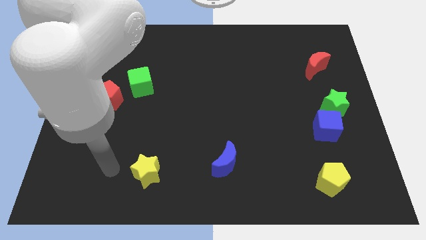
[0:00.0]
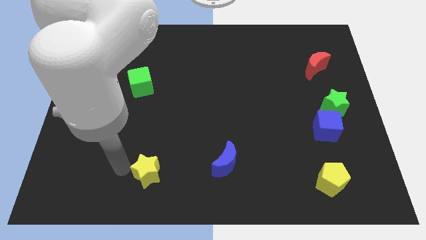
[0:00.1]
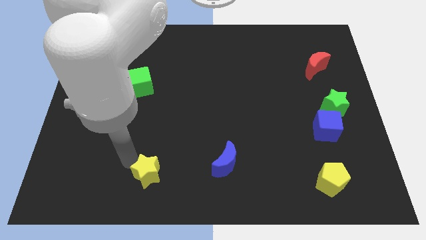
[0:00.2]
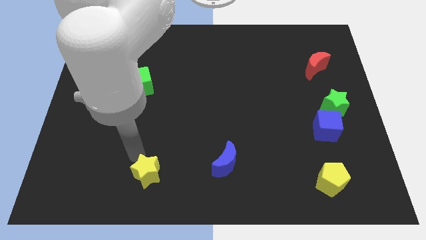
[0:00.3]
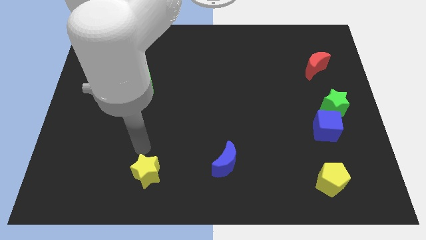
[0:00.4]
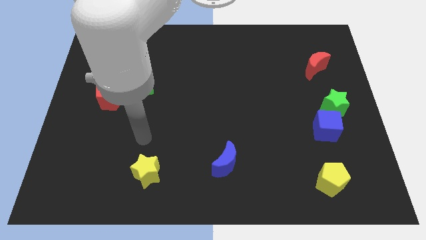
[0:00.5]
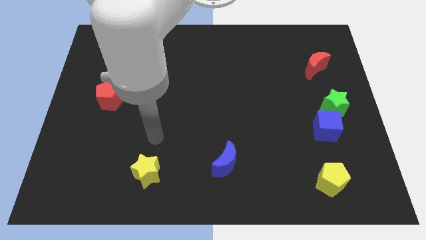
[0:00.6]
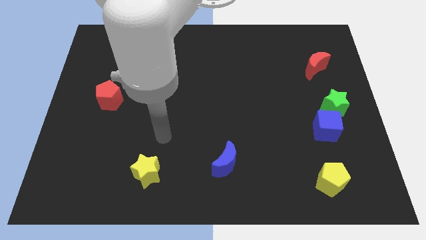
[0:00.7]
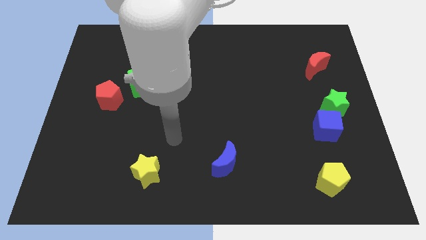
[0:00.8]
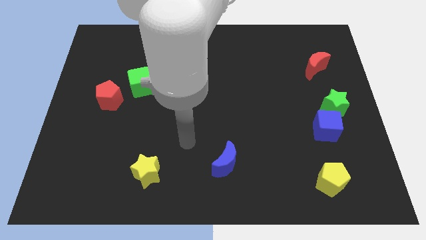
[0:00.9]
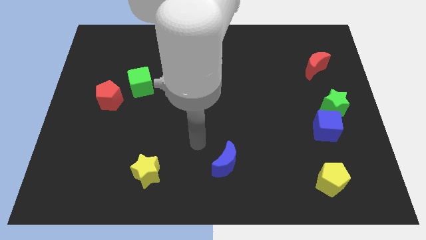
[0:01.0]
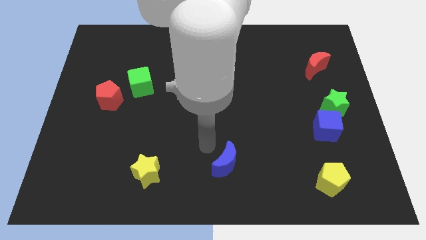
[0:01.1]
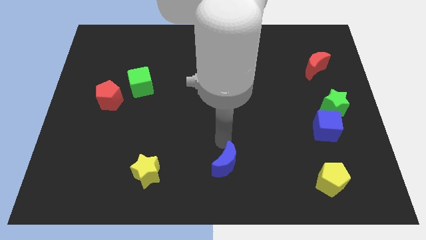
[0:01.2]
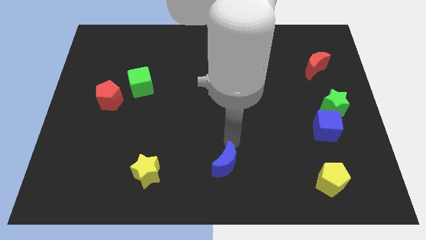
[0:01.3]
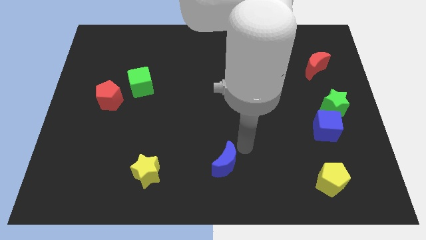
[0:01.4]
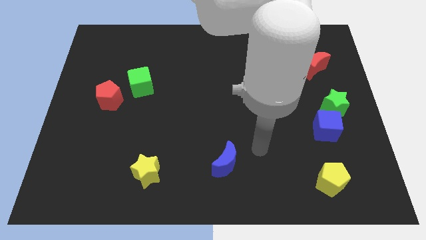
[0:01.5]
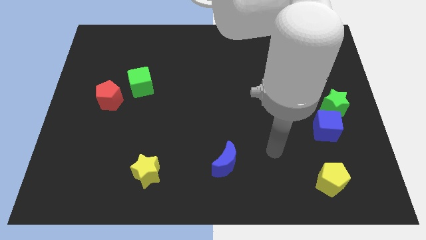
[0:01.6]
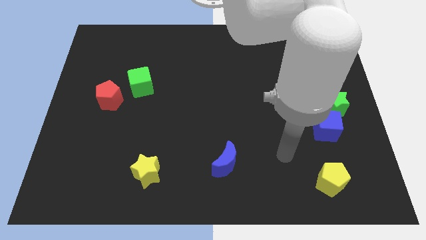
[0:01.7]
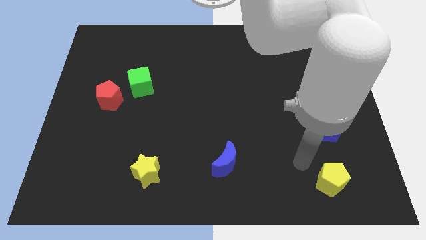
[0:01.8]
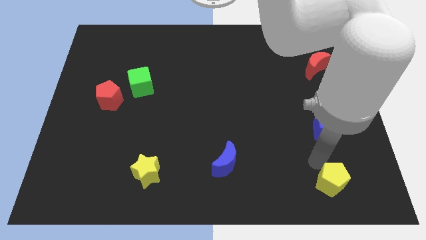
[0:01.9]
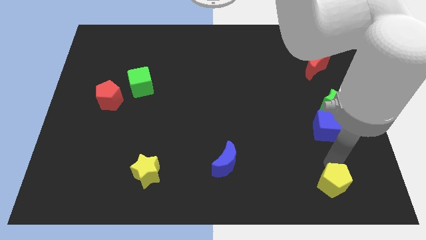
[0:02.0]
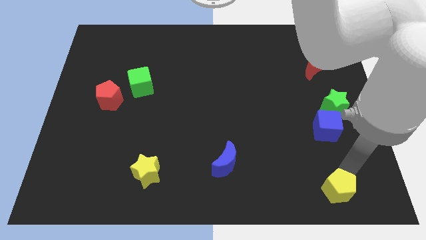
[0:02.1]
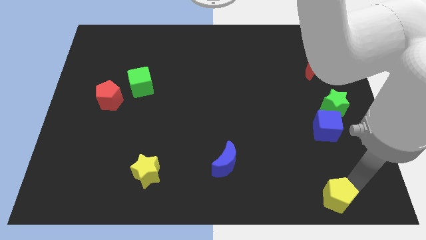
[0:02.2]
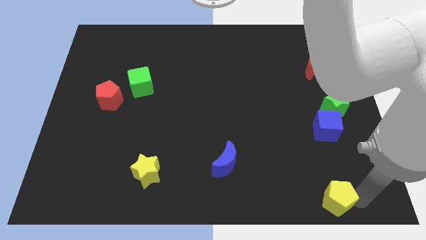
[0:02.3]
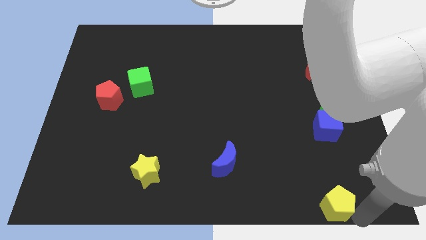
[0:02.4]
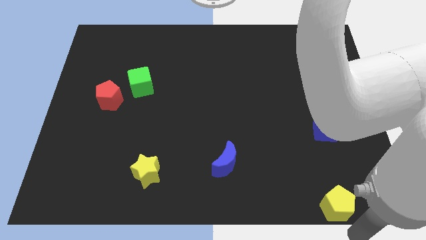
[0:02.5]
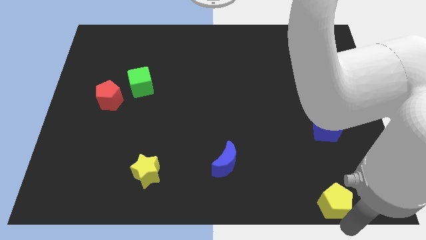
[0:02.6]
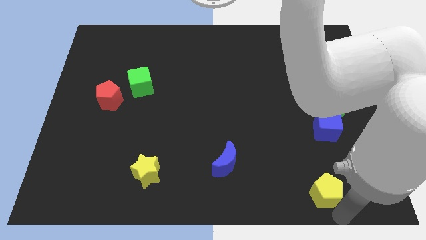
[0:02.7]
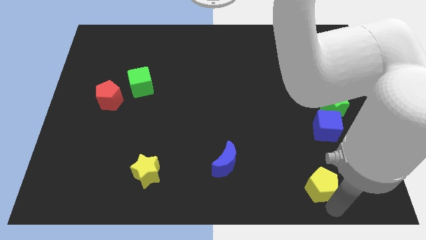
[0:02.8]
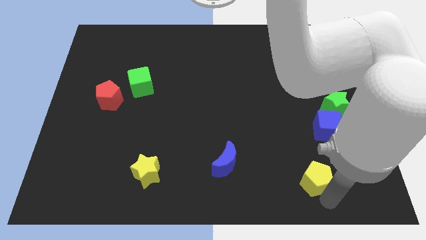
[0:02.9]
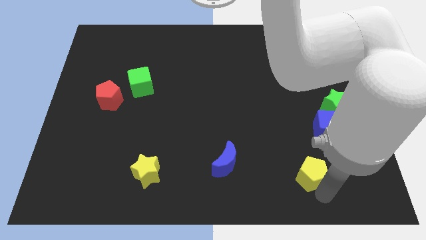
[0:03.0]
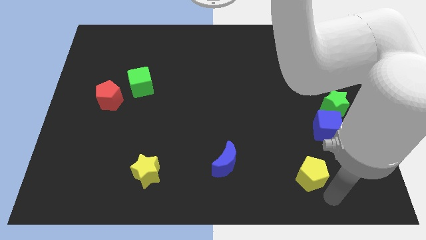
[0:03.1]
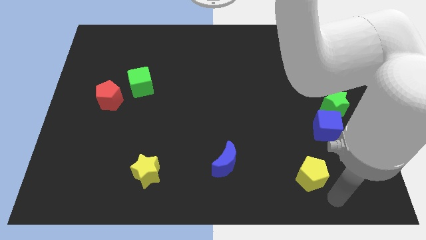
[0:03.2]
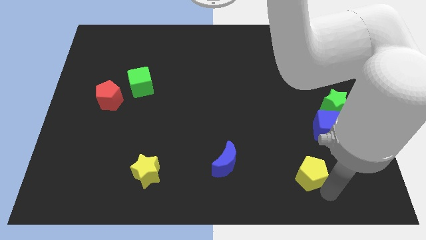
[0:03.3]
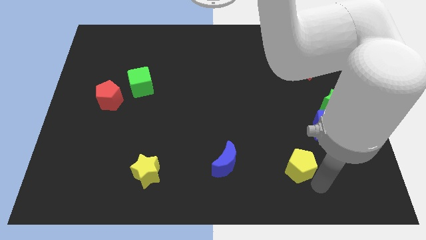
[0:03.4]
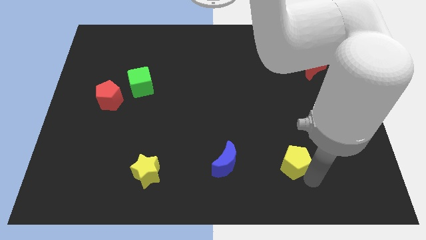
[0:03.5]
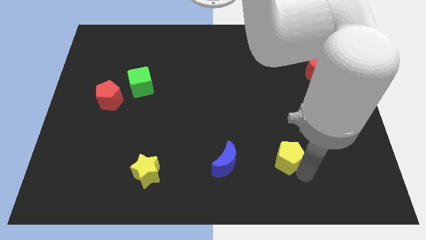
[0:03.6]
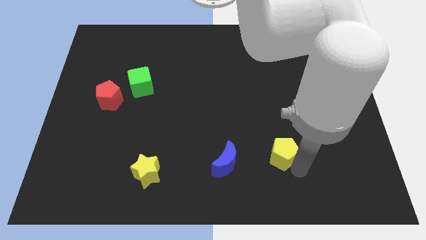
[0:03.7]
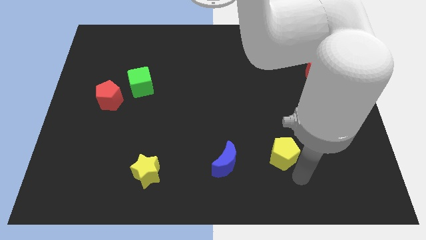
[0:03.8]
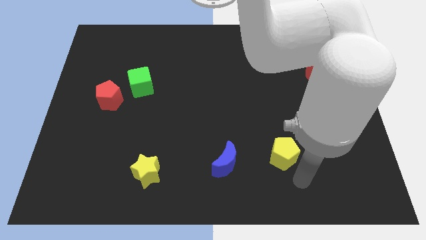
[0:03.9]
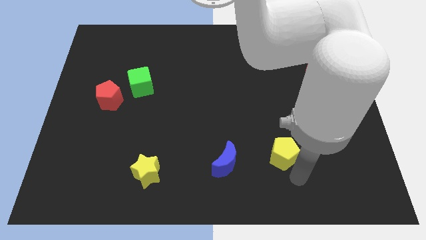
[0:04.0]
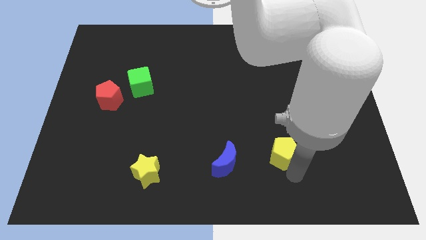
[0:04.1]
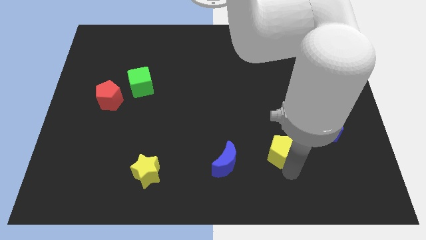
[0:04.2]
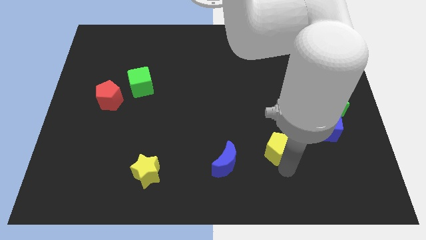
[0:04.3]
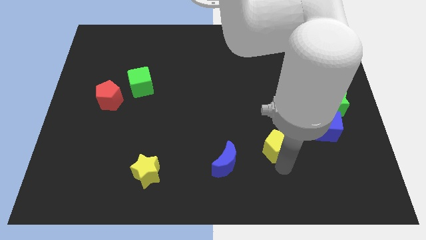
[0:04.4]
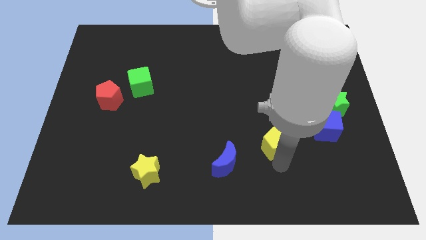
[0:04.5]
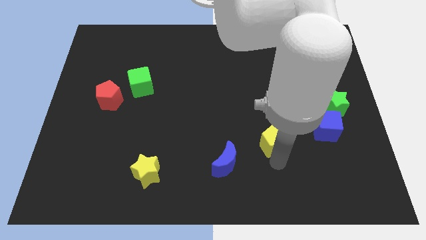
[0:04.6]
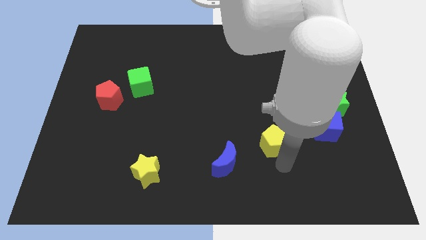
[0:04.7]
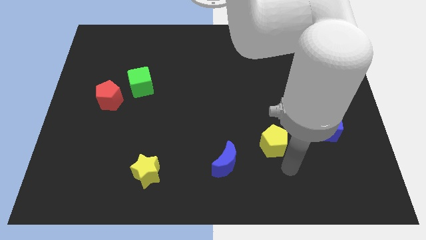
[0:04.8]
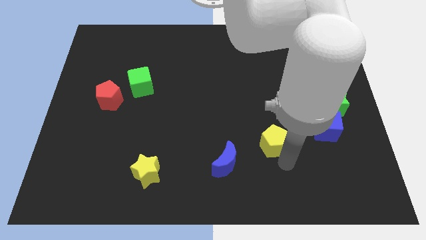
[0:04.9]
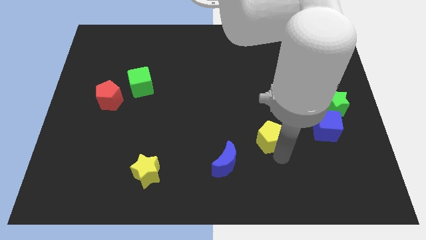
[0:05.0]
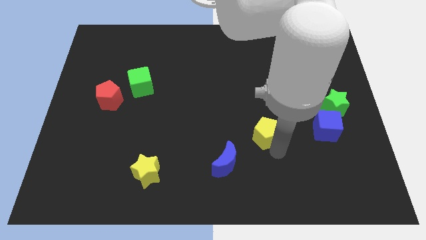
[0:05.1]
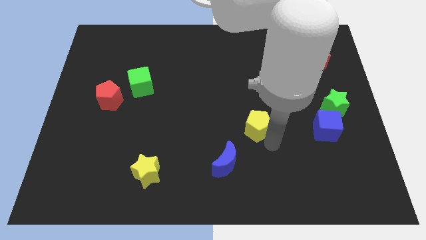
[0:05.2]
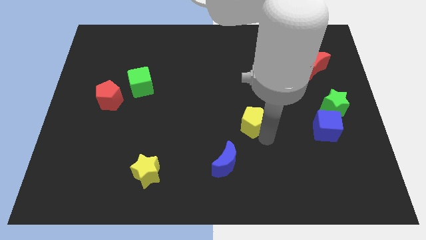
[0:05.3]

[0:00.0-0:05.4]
move the yellow pentagon up and to the left

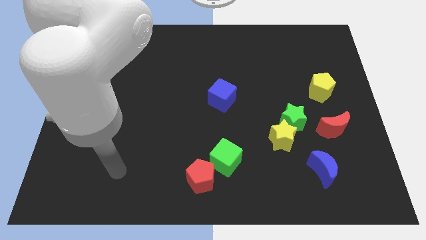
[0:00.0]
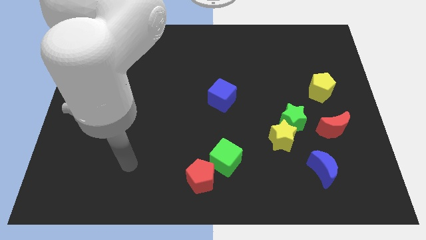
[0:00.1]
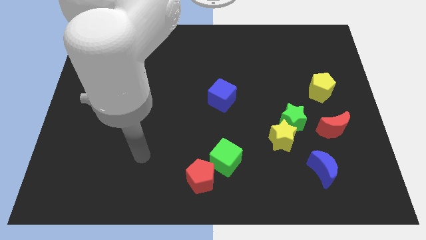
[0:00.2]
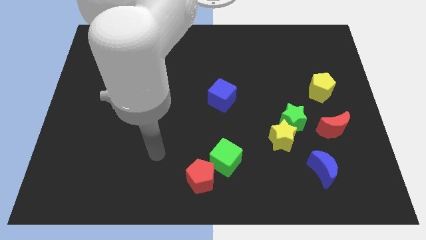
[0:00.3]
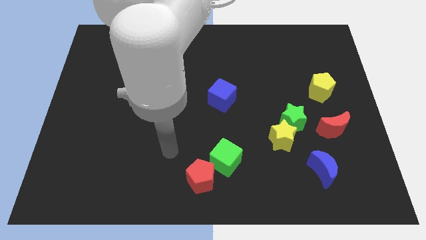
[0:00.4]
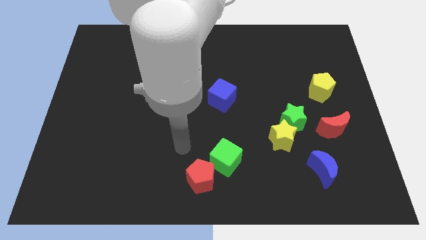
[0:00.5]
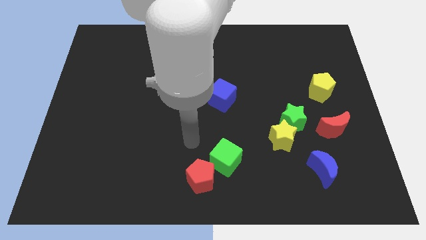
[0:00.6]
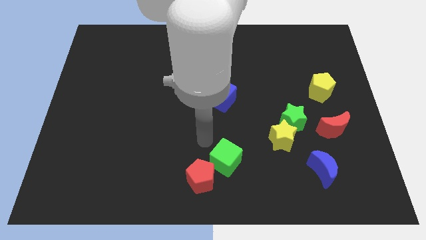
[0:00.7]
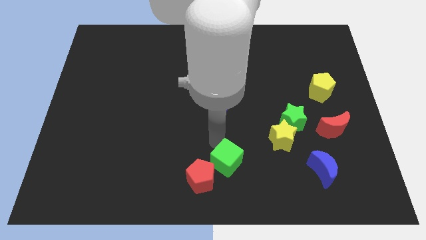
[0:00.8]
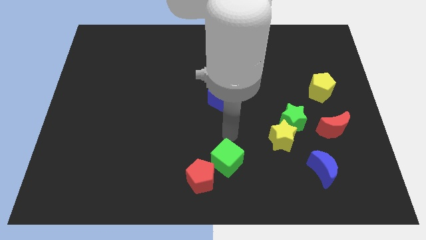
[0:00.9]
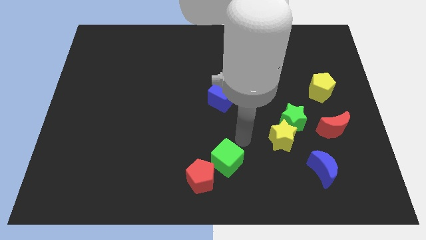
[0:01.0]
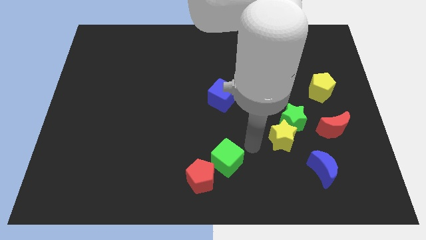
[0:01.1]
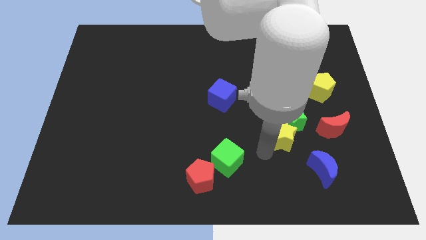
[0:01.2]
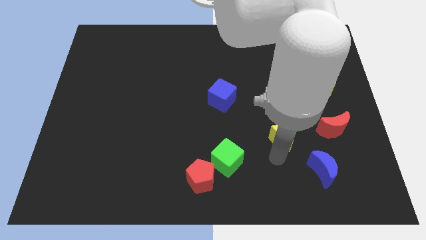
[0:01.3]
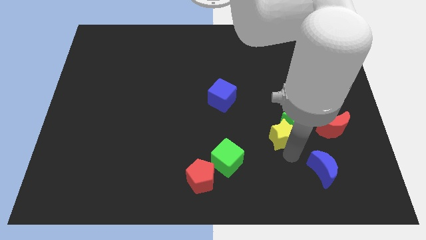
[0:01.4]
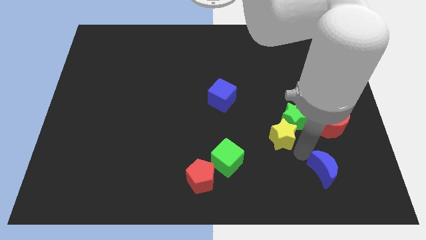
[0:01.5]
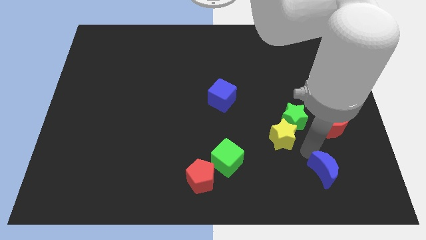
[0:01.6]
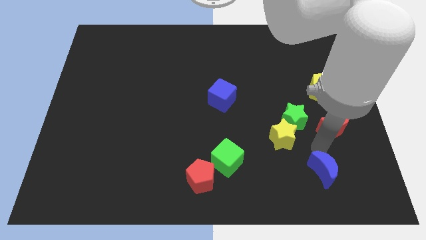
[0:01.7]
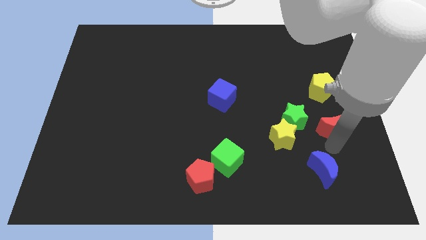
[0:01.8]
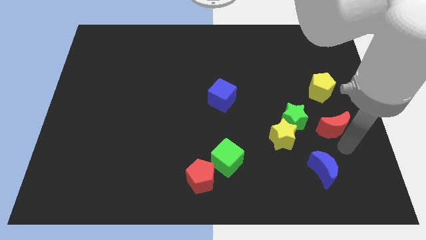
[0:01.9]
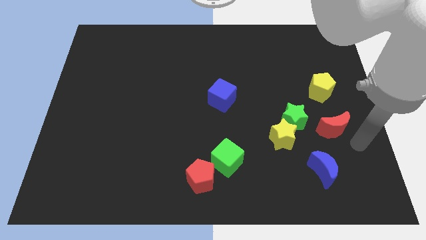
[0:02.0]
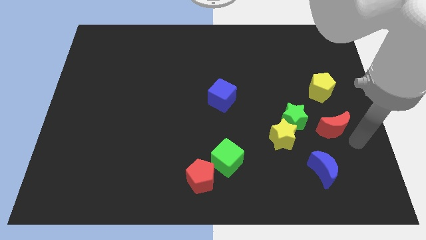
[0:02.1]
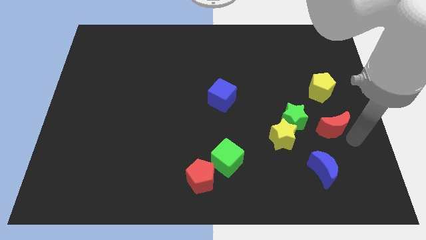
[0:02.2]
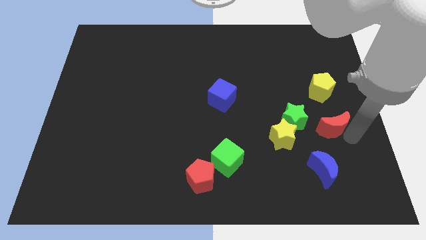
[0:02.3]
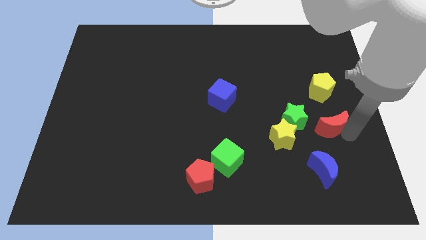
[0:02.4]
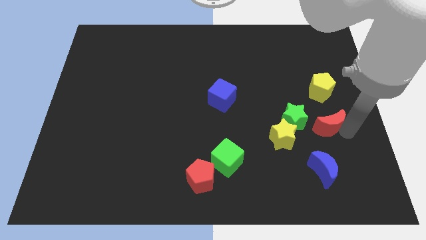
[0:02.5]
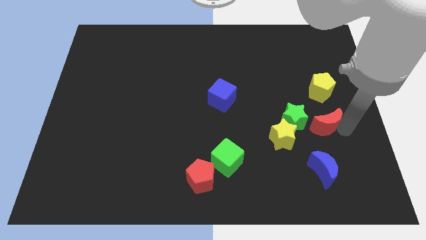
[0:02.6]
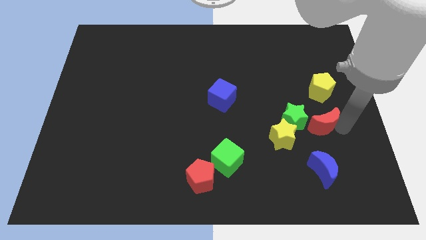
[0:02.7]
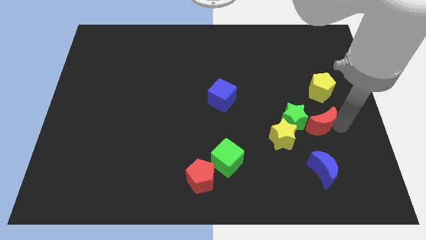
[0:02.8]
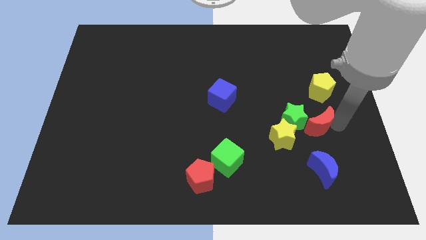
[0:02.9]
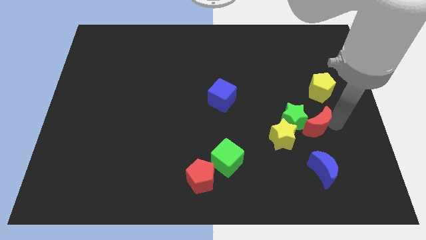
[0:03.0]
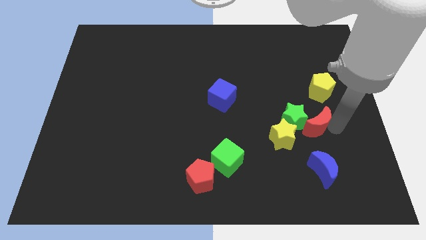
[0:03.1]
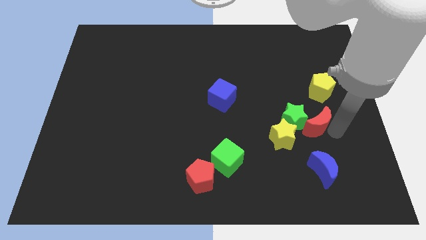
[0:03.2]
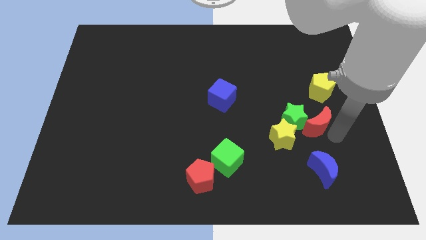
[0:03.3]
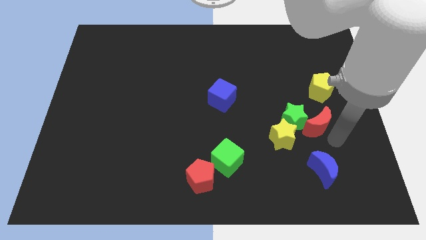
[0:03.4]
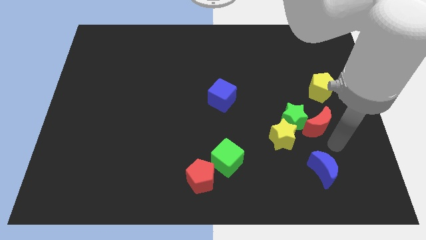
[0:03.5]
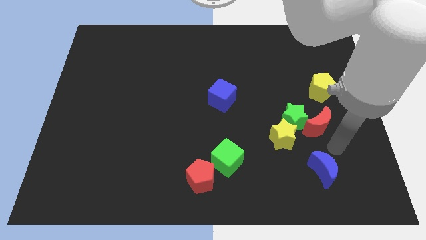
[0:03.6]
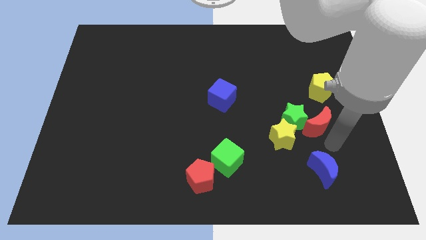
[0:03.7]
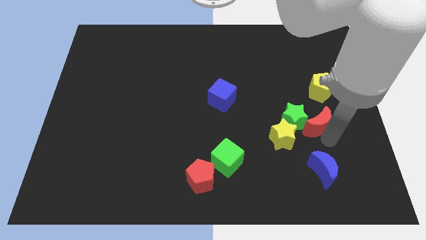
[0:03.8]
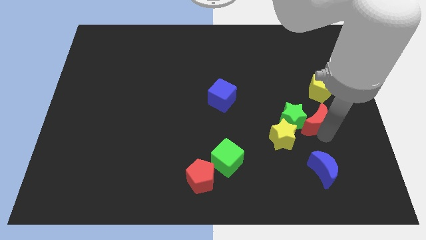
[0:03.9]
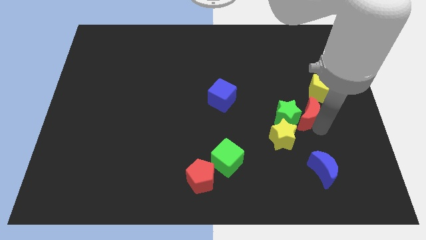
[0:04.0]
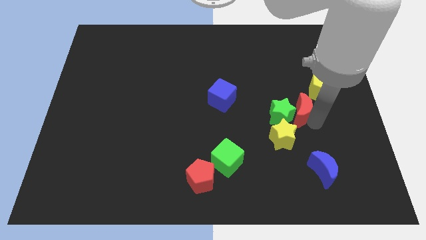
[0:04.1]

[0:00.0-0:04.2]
move the red moon up and then left a little
